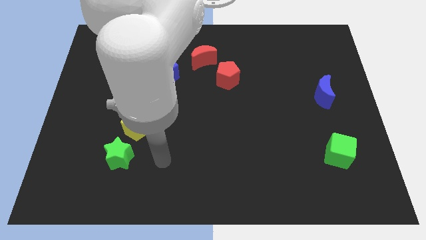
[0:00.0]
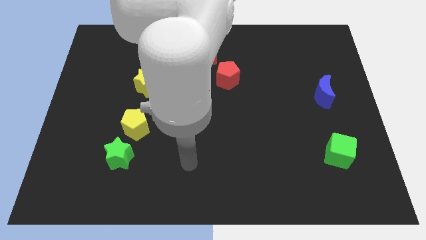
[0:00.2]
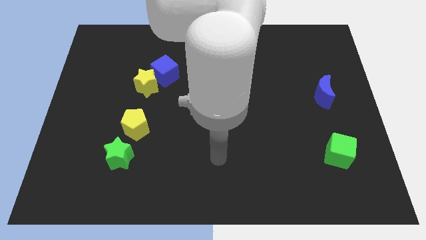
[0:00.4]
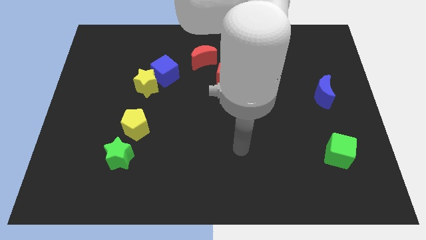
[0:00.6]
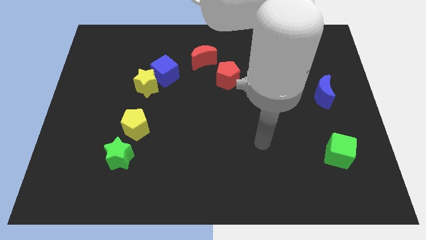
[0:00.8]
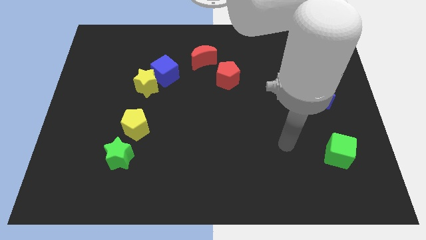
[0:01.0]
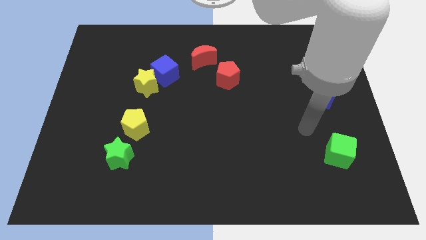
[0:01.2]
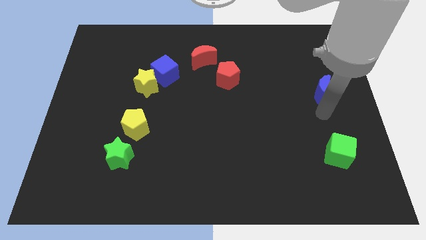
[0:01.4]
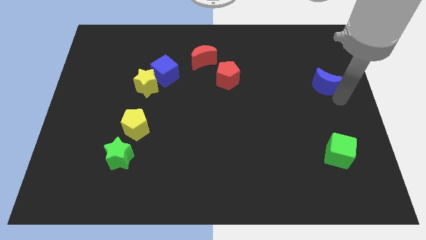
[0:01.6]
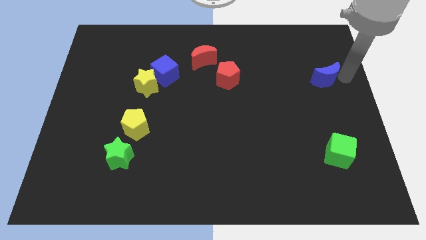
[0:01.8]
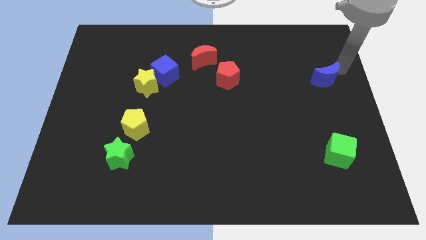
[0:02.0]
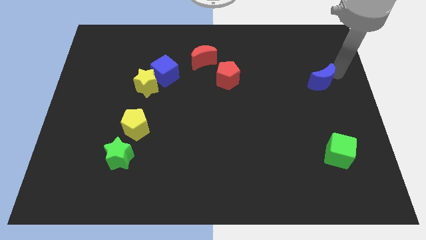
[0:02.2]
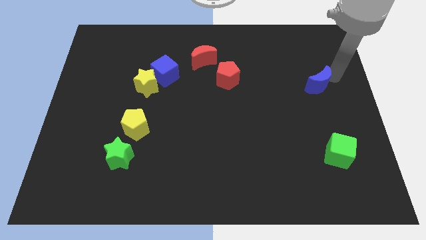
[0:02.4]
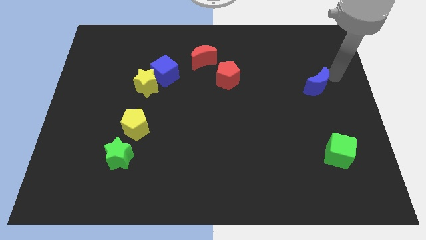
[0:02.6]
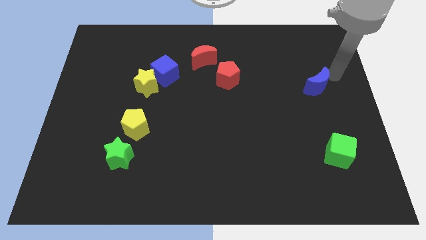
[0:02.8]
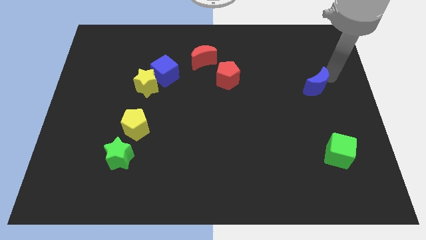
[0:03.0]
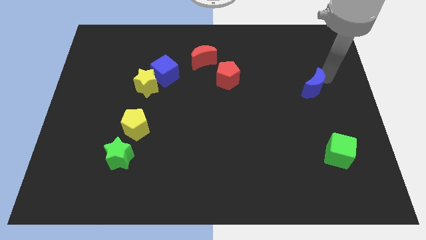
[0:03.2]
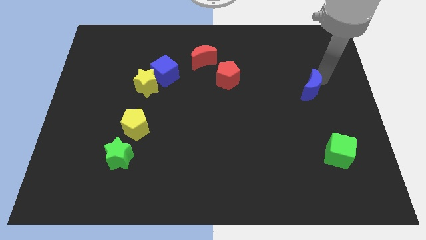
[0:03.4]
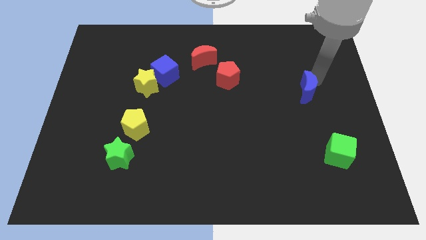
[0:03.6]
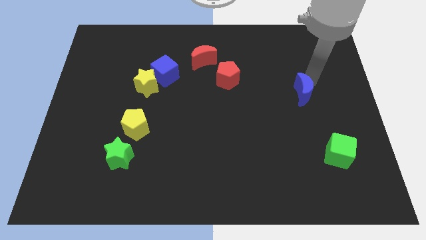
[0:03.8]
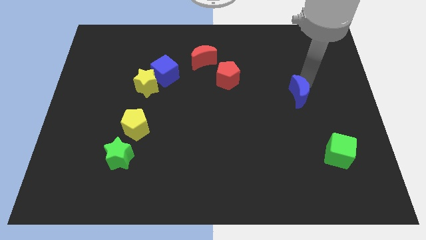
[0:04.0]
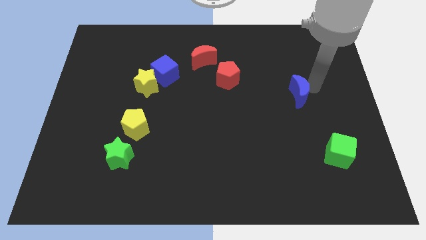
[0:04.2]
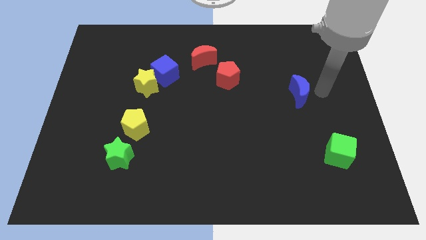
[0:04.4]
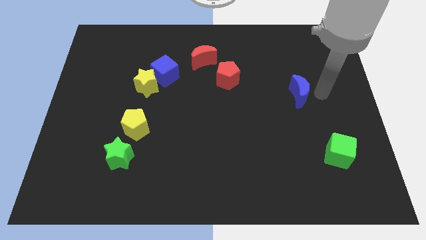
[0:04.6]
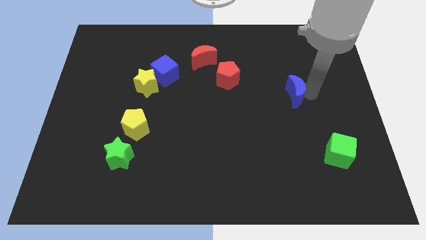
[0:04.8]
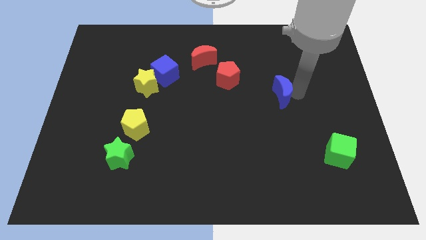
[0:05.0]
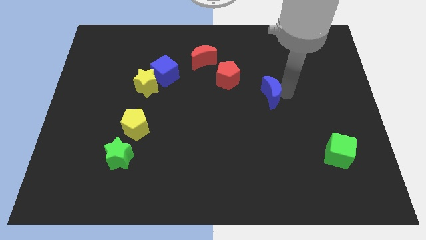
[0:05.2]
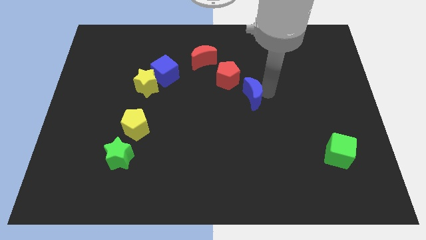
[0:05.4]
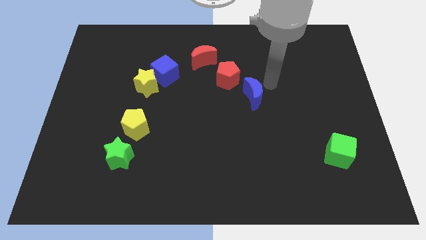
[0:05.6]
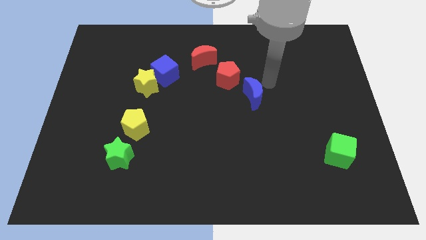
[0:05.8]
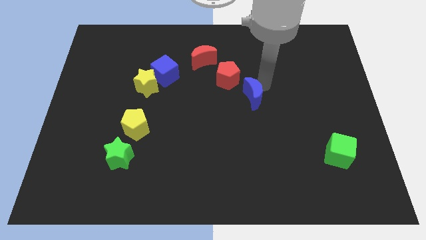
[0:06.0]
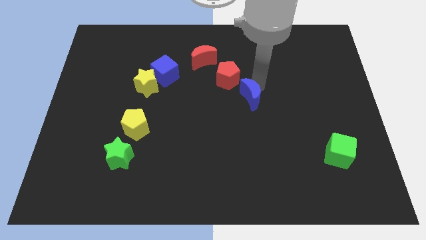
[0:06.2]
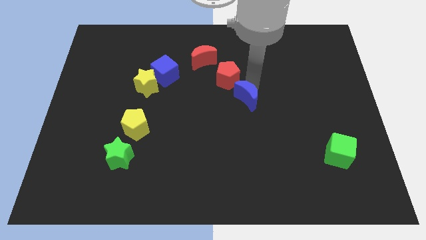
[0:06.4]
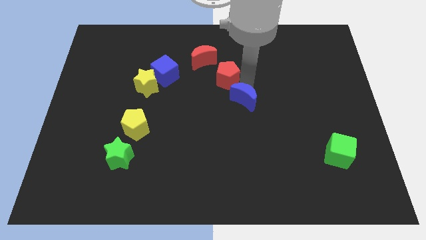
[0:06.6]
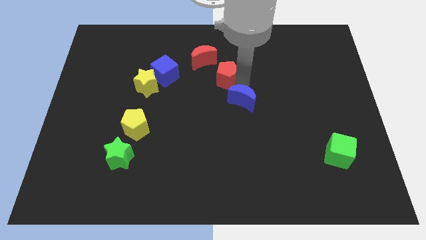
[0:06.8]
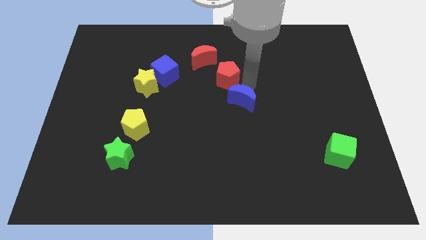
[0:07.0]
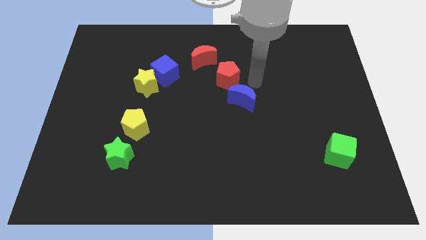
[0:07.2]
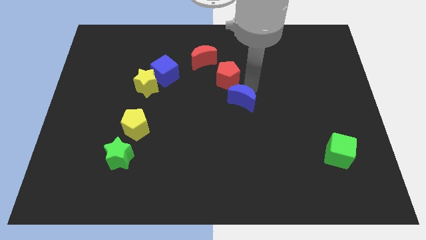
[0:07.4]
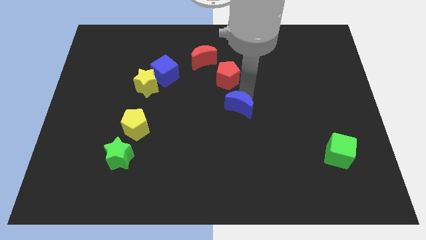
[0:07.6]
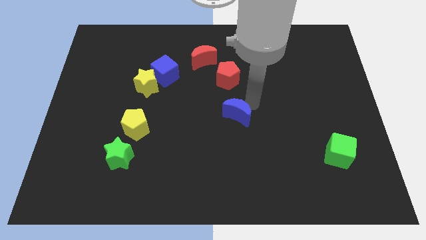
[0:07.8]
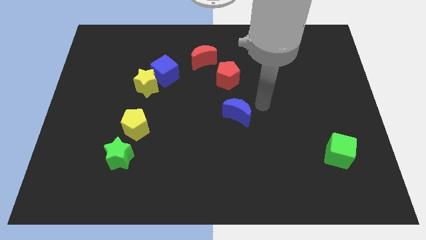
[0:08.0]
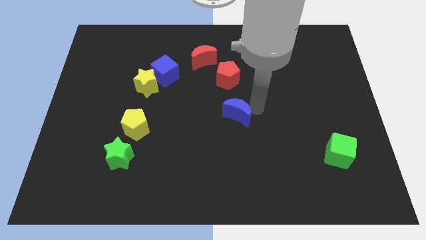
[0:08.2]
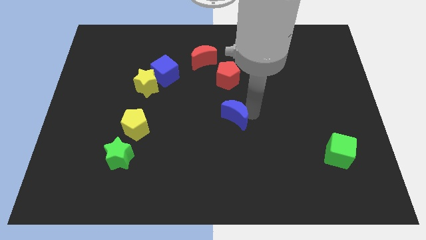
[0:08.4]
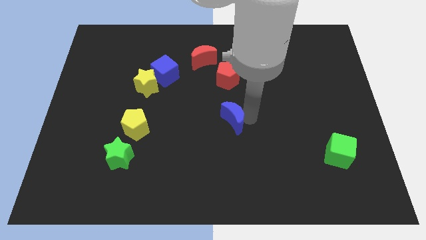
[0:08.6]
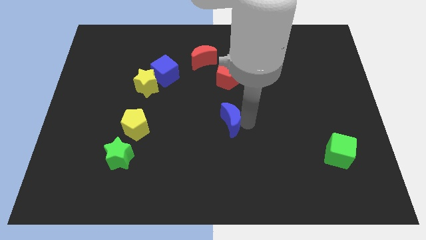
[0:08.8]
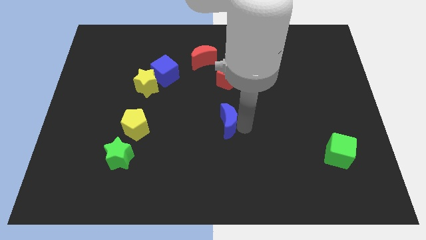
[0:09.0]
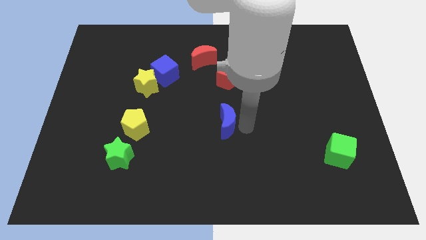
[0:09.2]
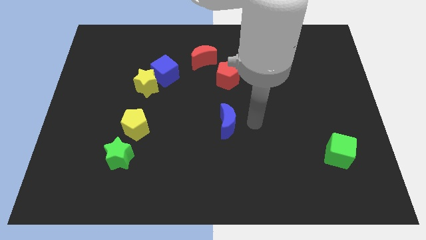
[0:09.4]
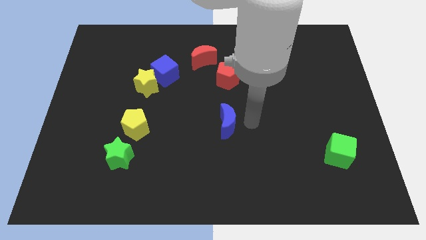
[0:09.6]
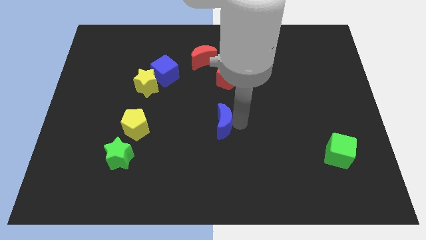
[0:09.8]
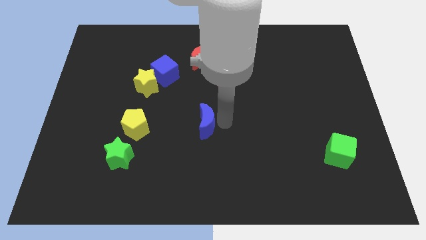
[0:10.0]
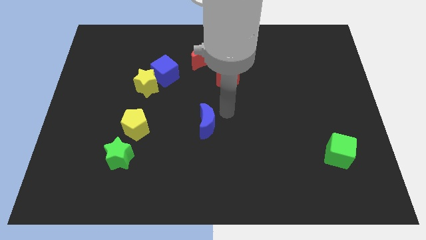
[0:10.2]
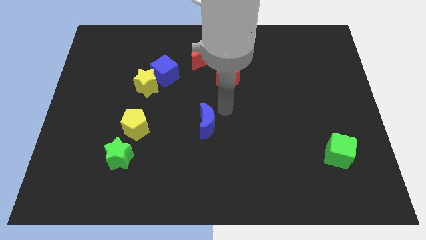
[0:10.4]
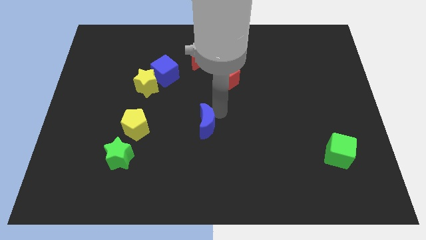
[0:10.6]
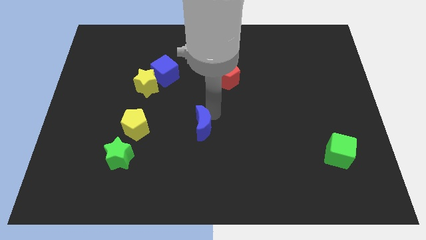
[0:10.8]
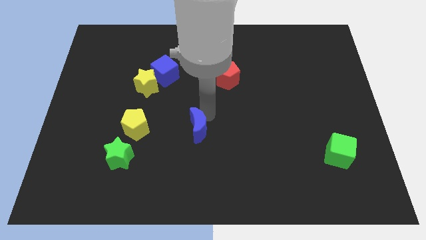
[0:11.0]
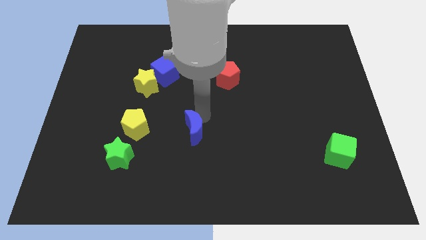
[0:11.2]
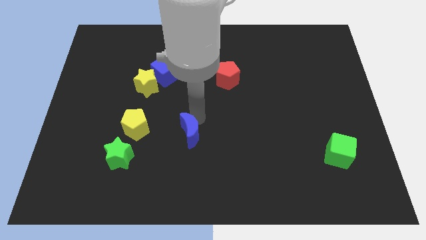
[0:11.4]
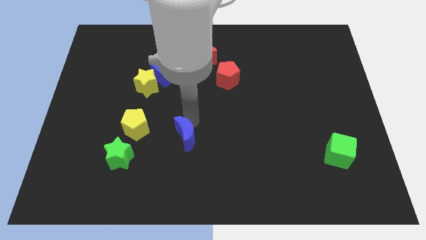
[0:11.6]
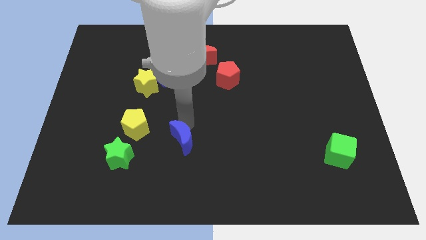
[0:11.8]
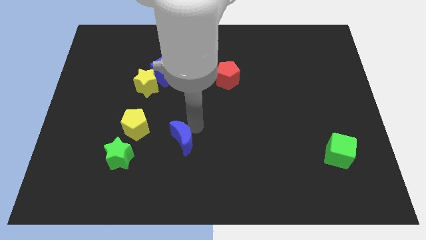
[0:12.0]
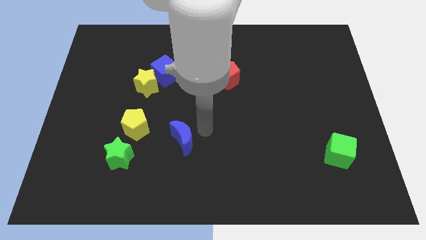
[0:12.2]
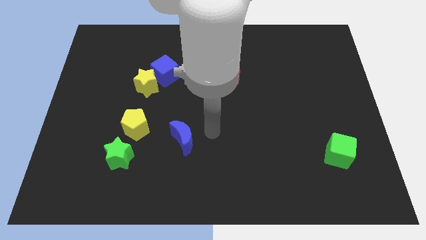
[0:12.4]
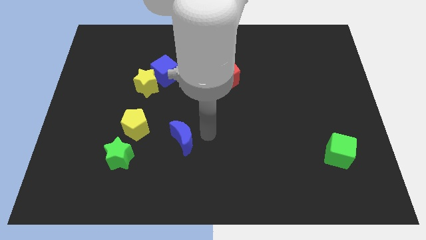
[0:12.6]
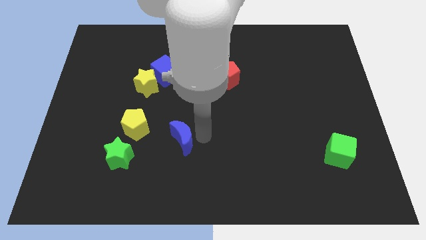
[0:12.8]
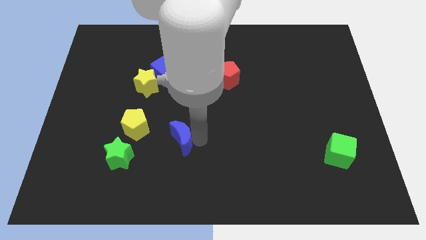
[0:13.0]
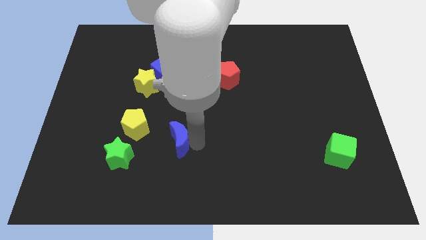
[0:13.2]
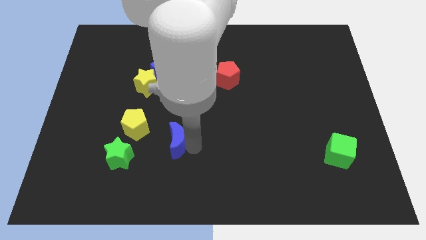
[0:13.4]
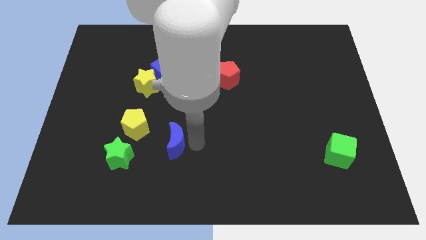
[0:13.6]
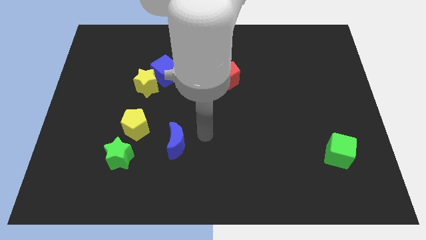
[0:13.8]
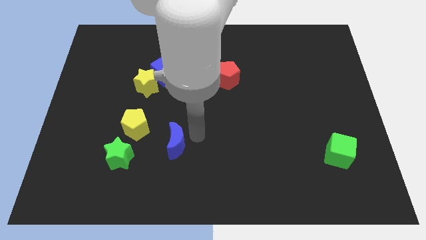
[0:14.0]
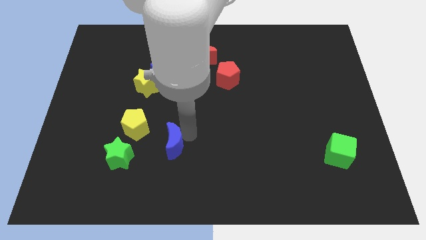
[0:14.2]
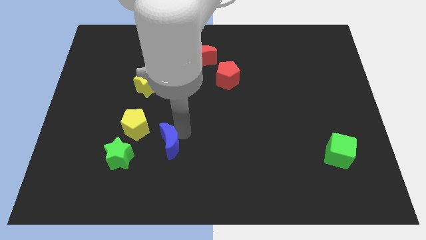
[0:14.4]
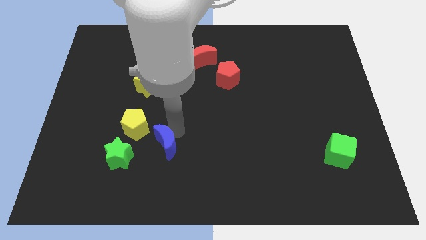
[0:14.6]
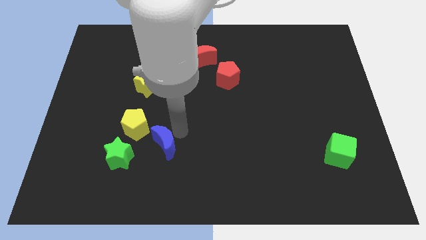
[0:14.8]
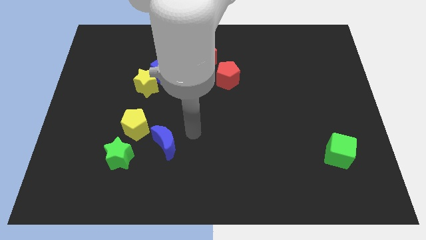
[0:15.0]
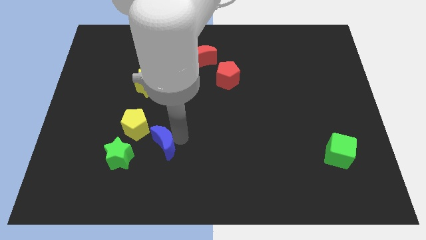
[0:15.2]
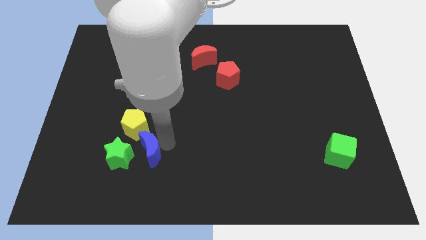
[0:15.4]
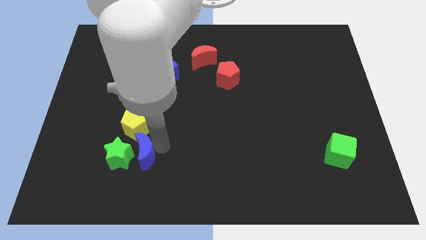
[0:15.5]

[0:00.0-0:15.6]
move the blue moon next to the green star

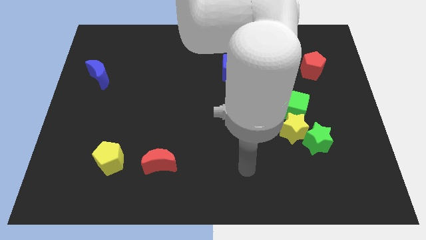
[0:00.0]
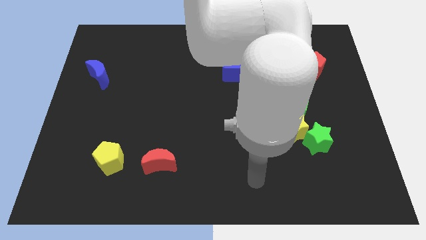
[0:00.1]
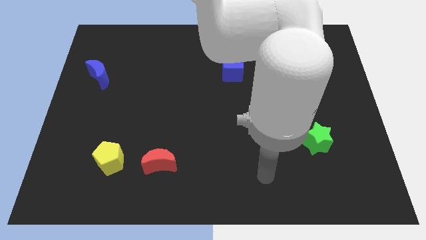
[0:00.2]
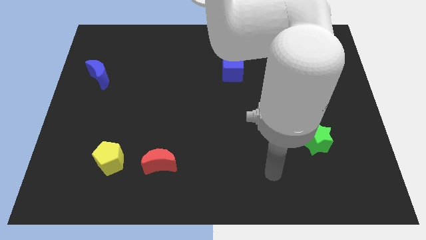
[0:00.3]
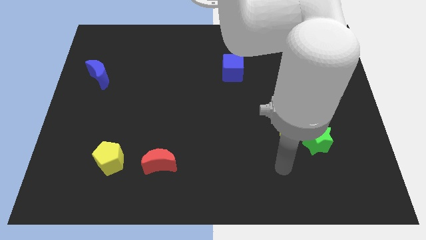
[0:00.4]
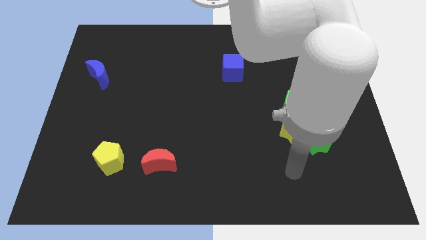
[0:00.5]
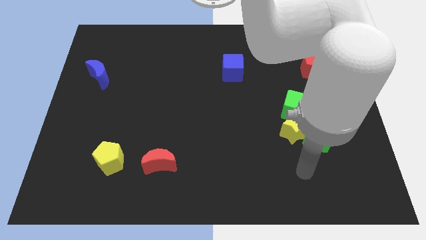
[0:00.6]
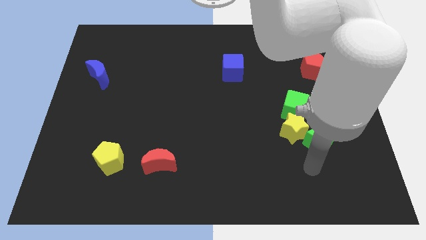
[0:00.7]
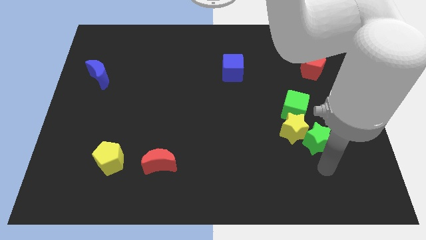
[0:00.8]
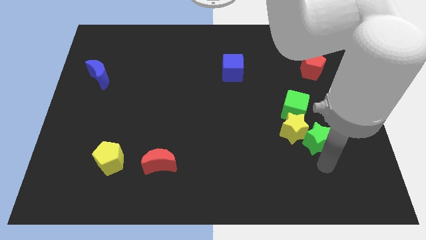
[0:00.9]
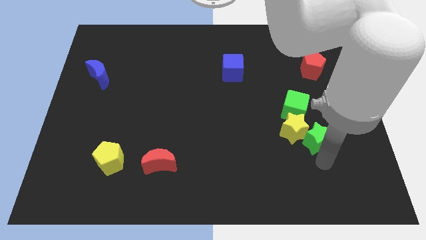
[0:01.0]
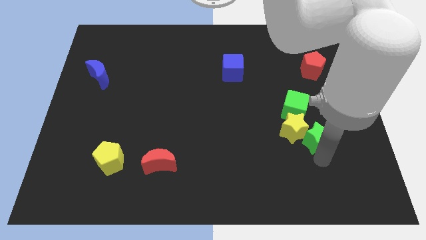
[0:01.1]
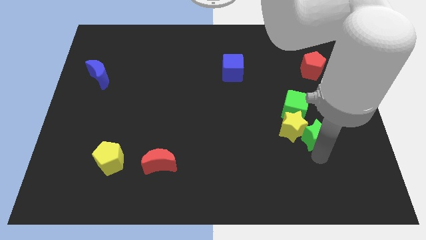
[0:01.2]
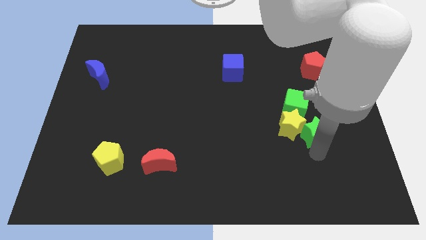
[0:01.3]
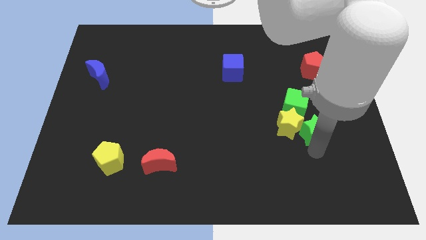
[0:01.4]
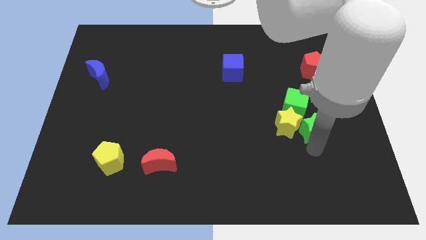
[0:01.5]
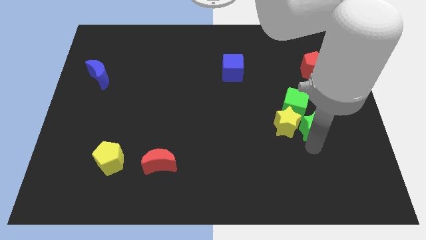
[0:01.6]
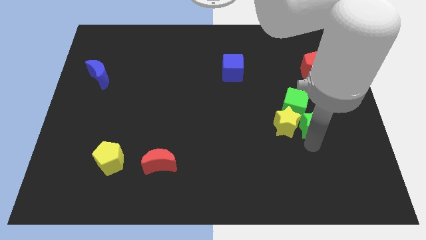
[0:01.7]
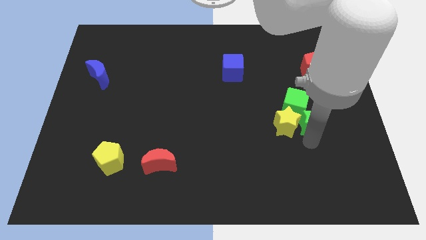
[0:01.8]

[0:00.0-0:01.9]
push the green star close to the green cube
